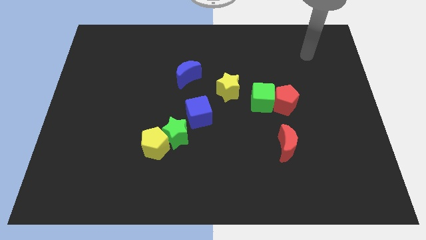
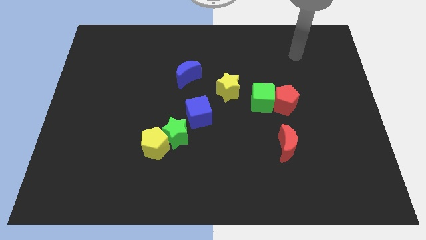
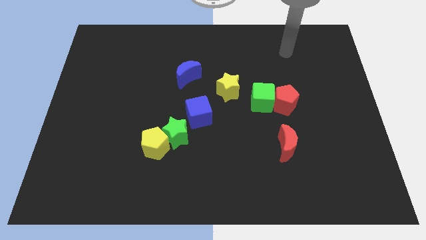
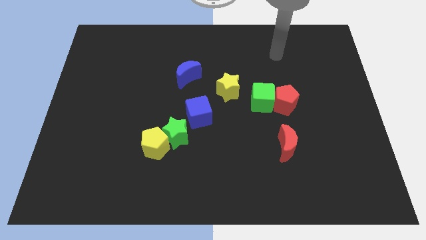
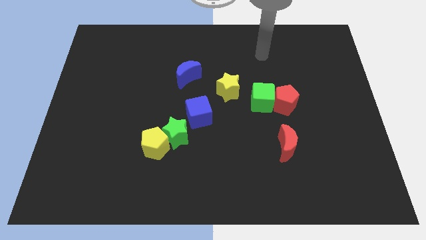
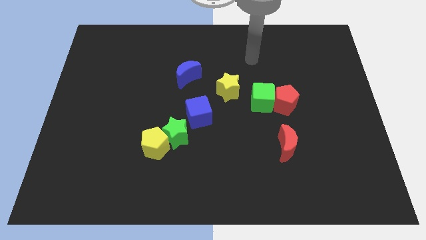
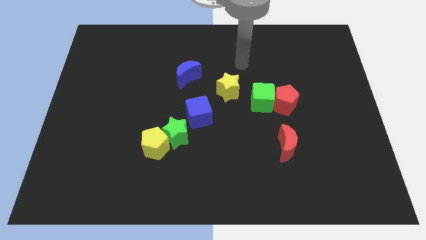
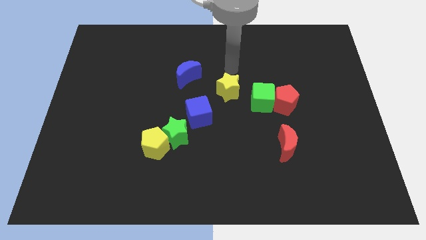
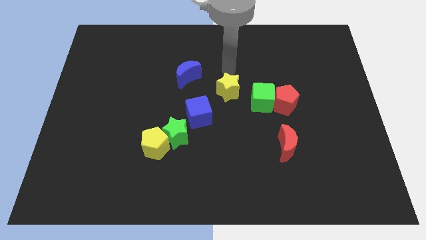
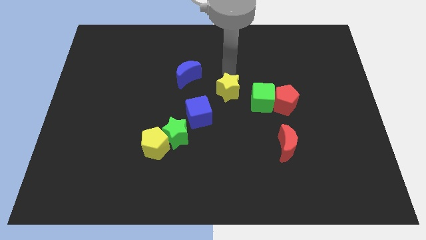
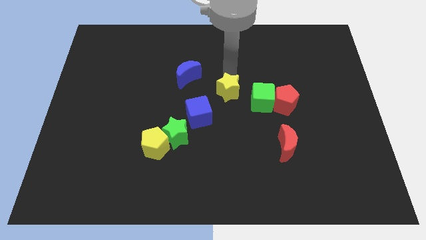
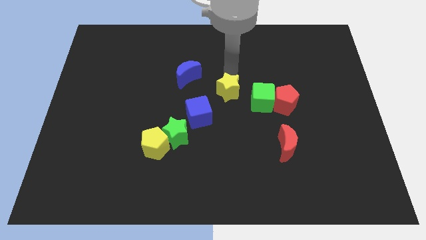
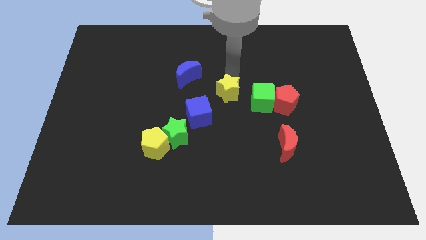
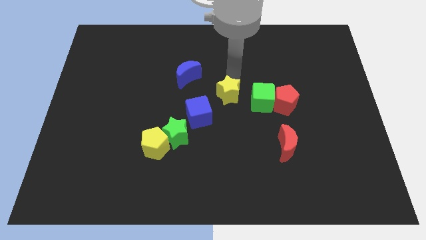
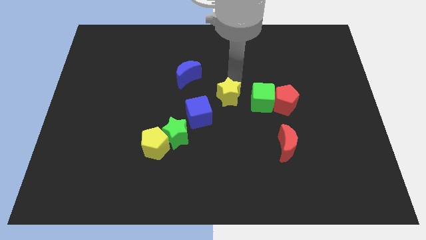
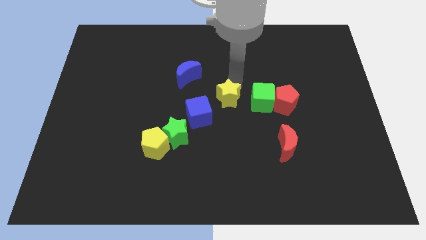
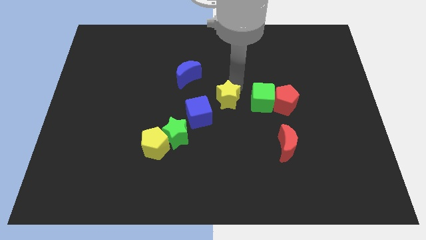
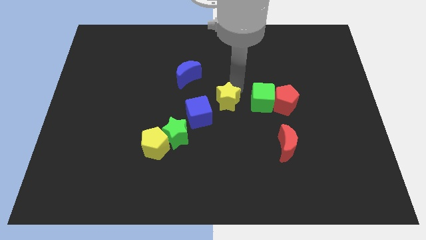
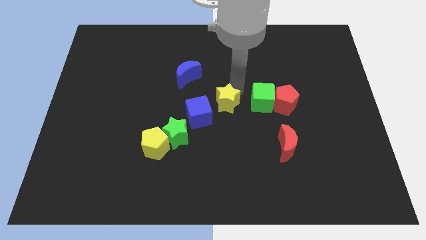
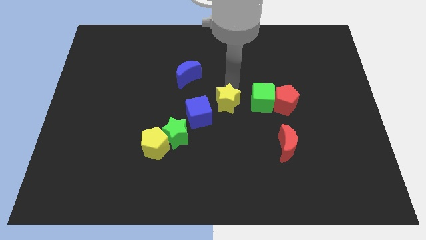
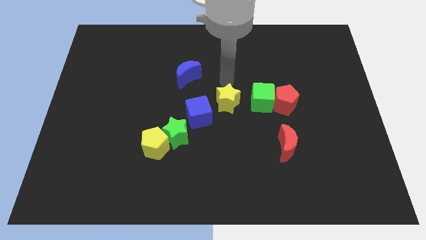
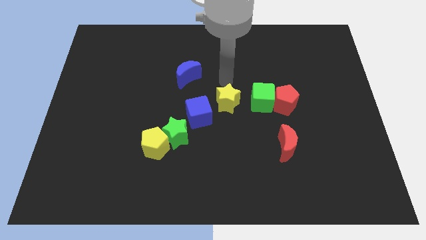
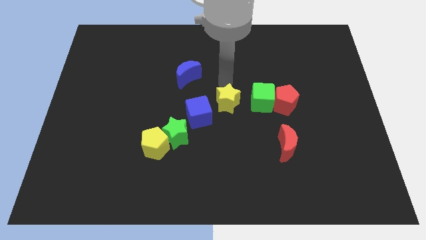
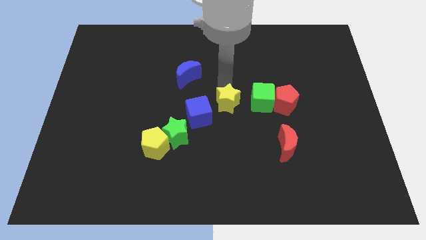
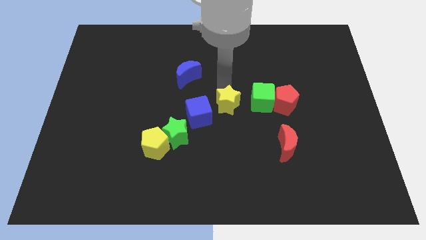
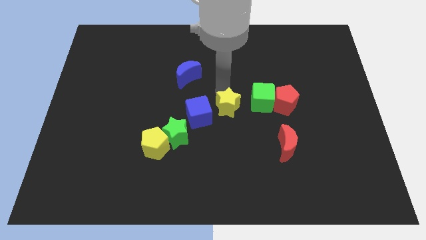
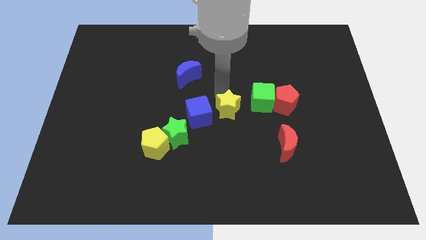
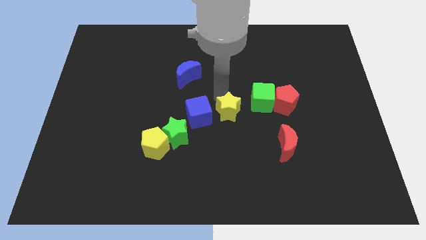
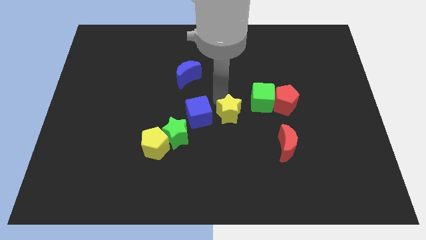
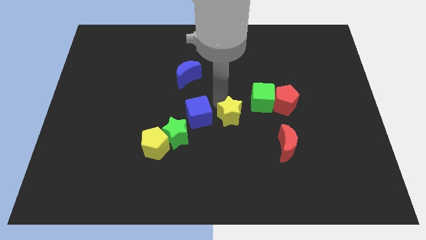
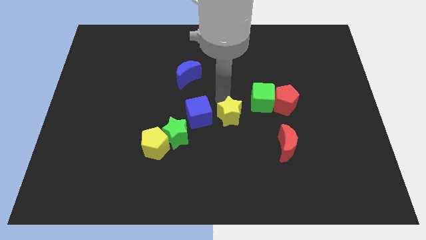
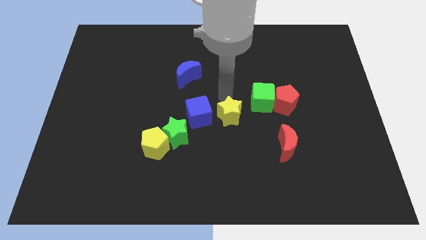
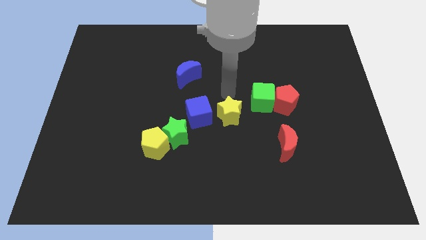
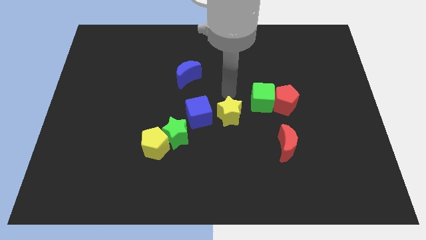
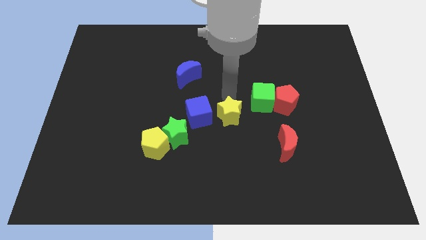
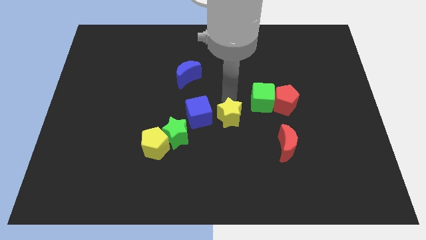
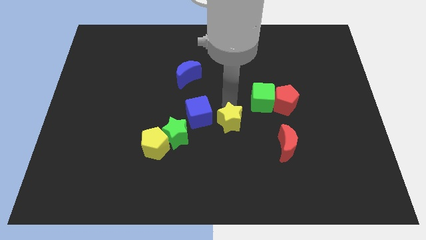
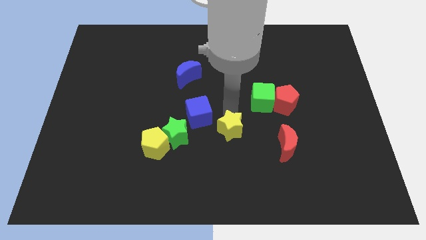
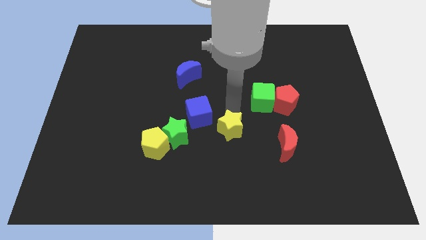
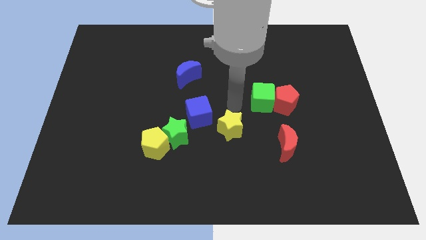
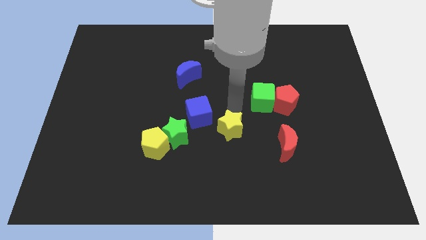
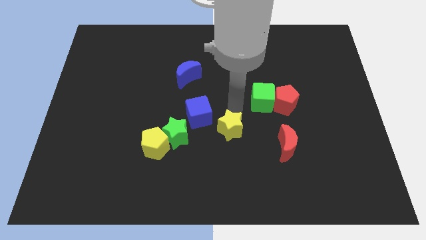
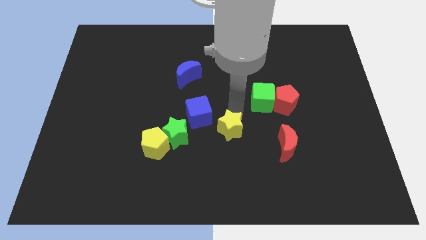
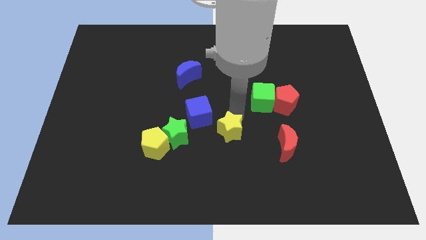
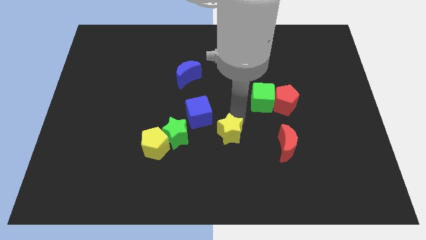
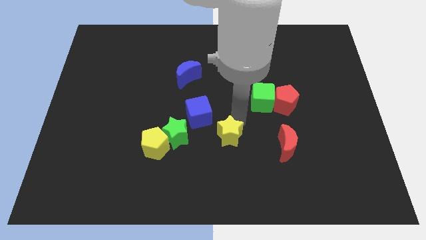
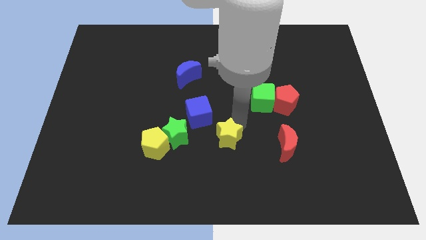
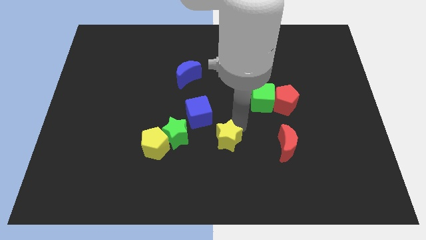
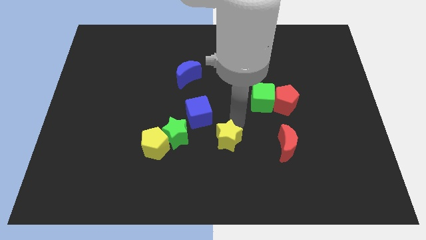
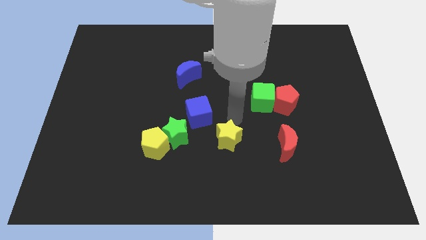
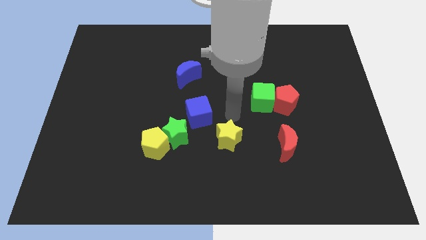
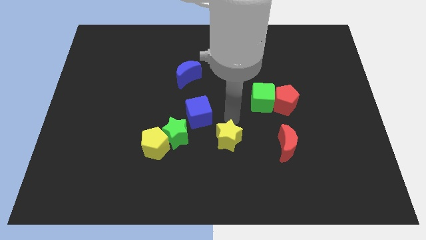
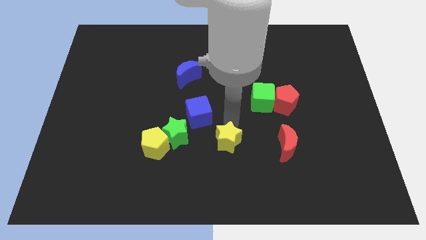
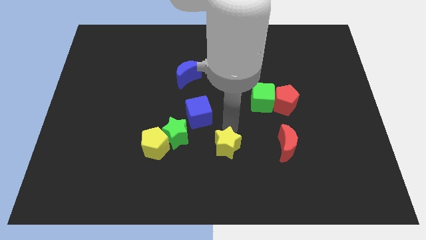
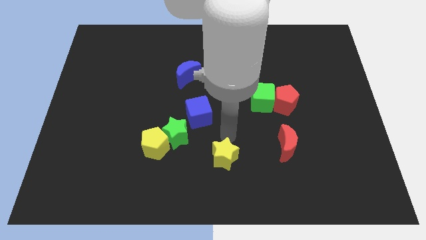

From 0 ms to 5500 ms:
push the yellow star to the bottom

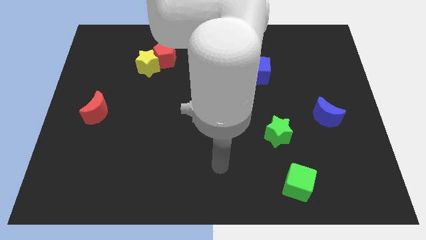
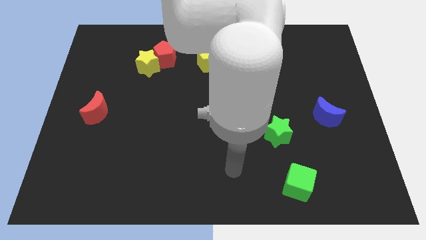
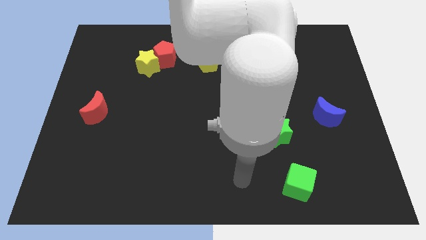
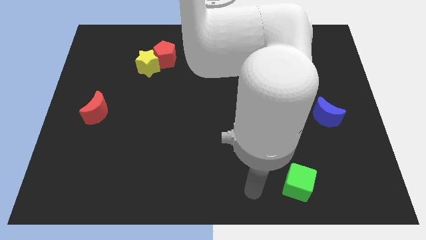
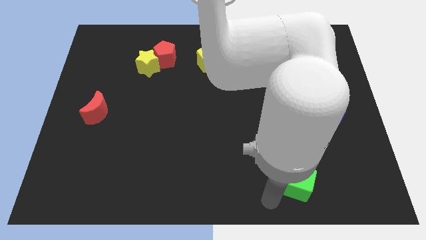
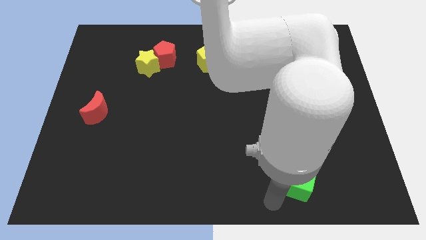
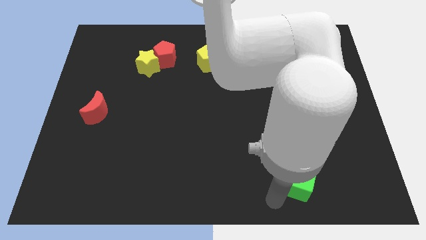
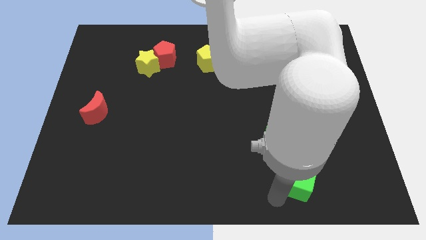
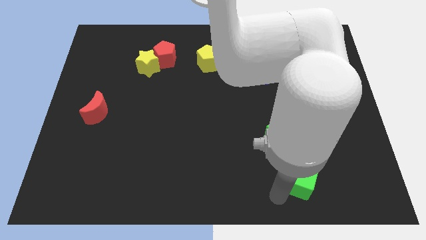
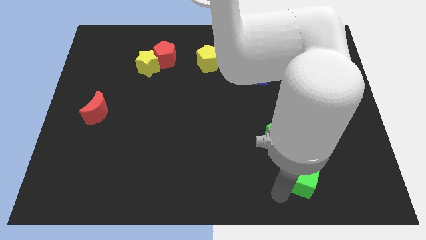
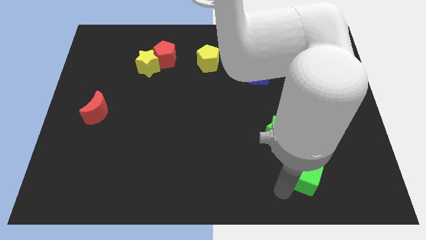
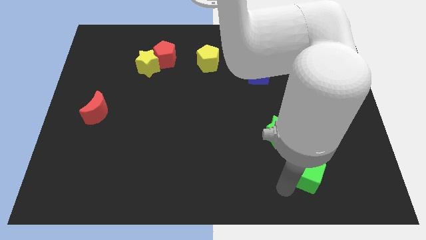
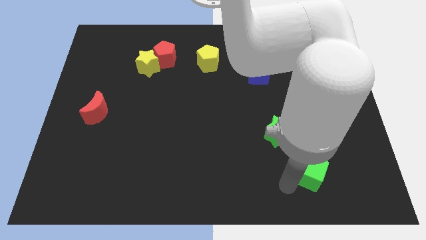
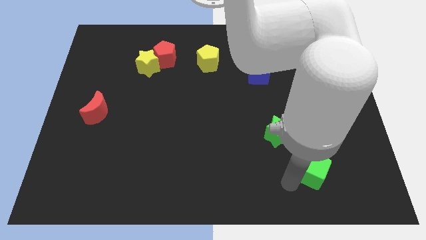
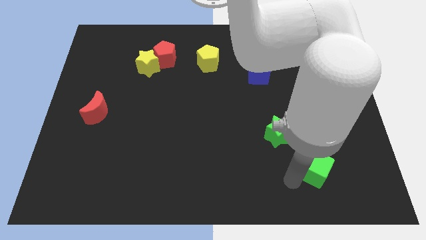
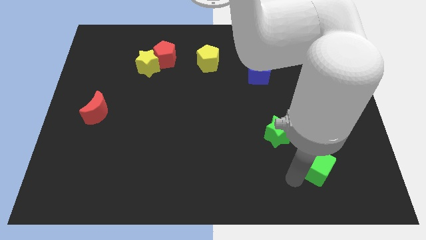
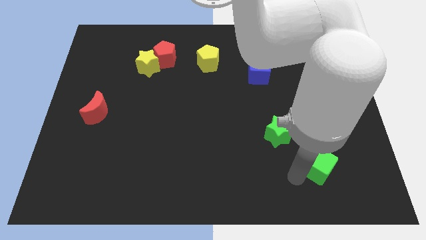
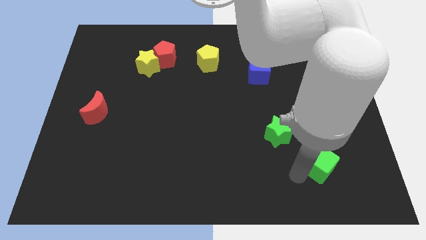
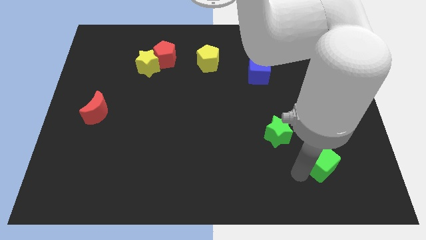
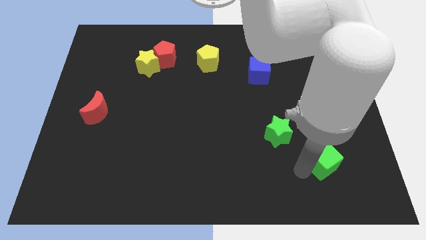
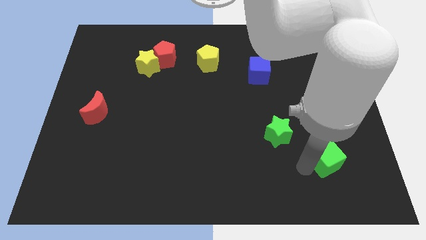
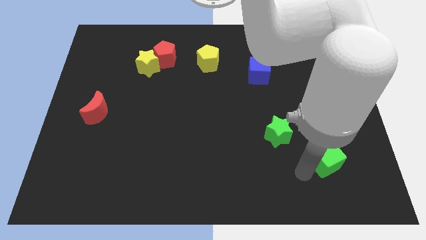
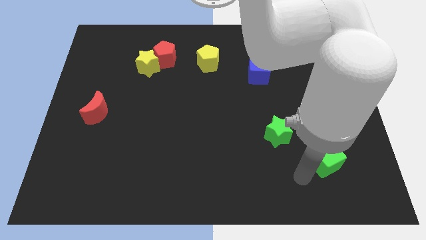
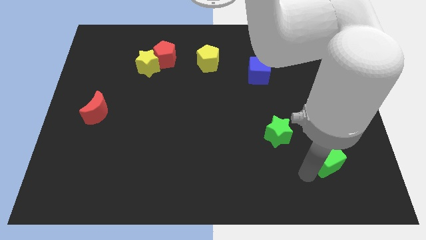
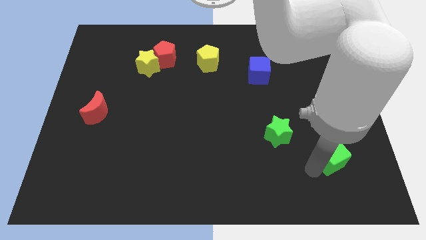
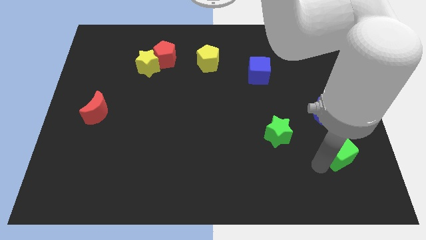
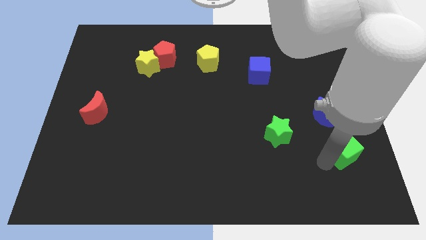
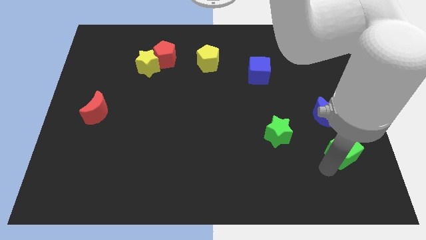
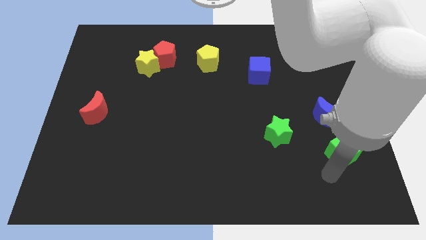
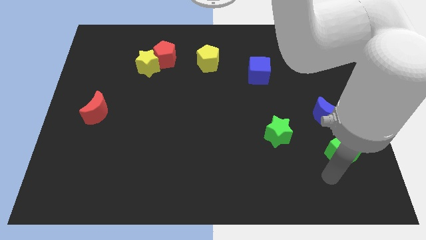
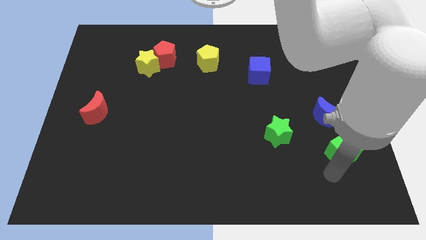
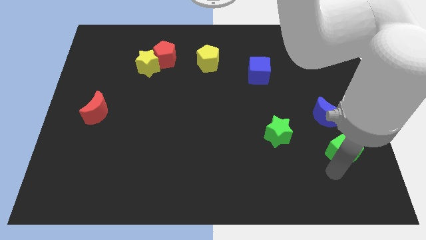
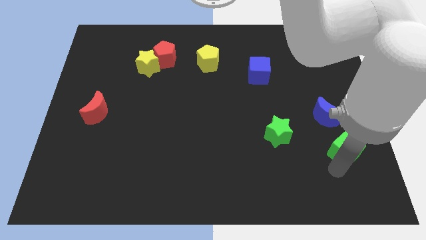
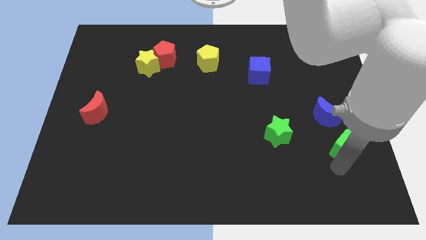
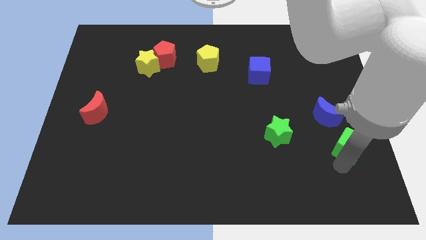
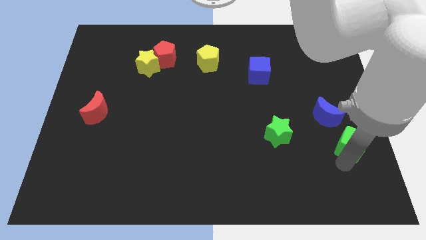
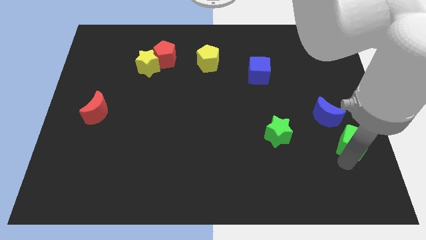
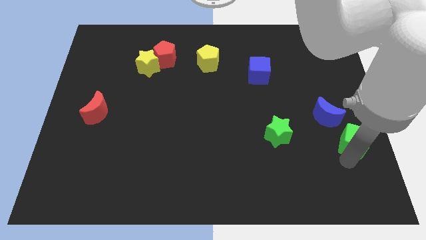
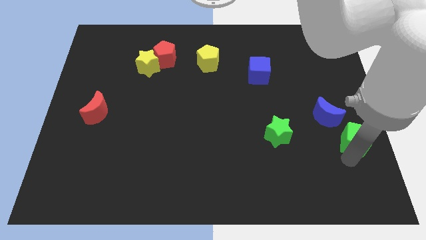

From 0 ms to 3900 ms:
slide the green cube to the center right
